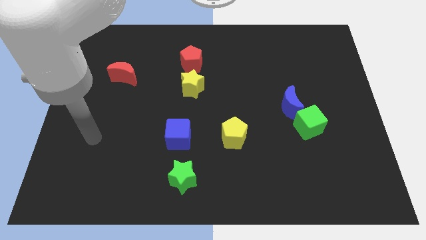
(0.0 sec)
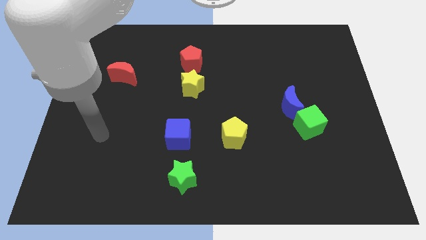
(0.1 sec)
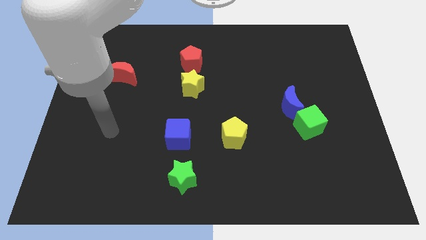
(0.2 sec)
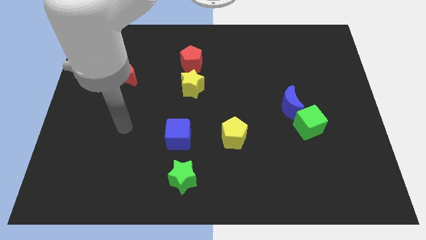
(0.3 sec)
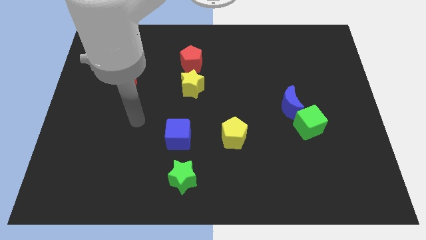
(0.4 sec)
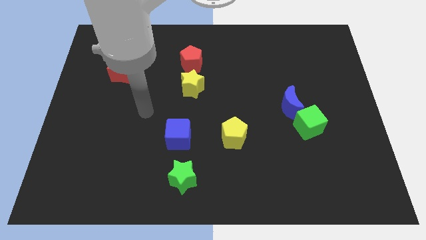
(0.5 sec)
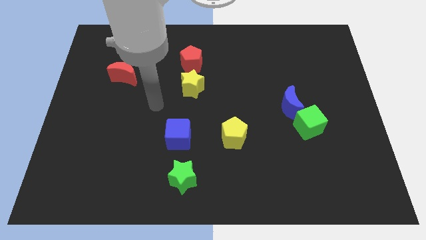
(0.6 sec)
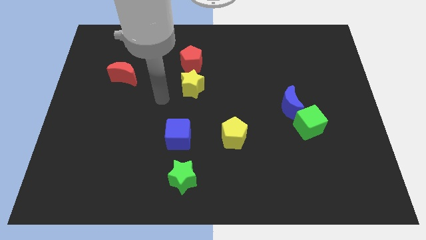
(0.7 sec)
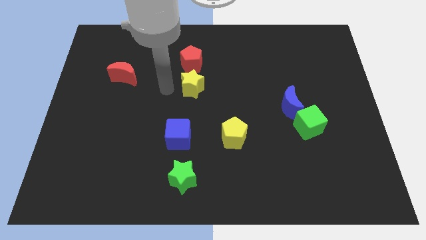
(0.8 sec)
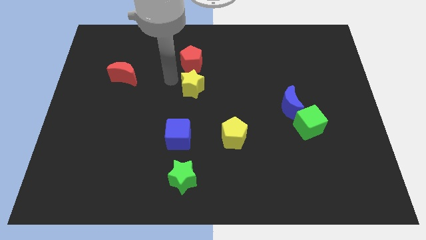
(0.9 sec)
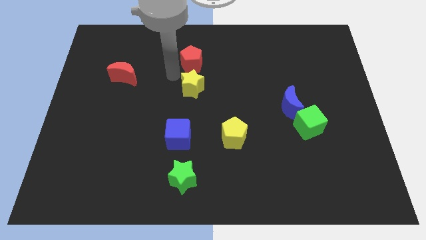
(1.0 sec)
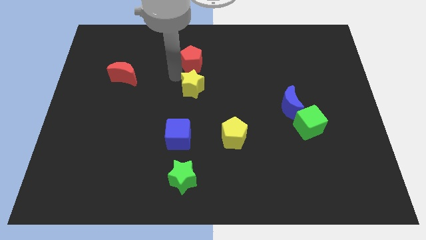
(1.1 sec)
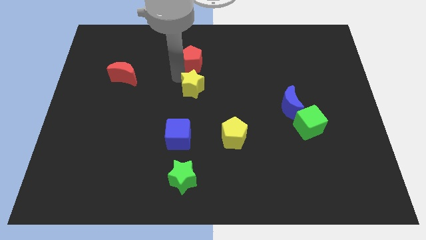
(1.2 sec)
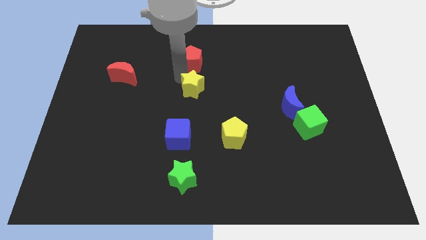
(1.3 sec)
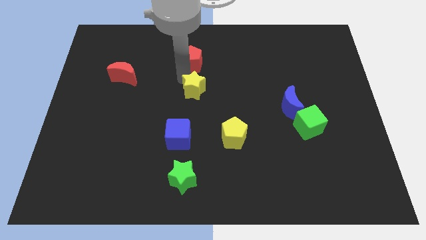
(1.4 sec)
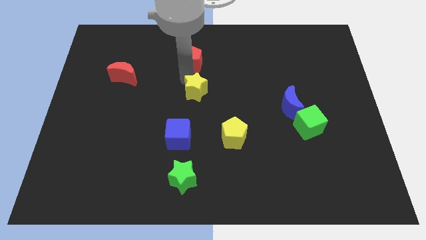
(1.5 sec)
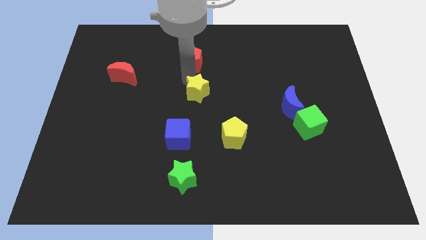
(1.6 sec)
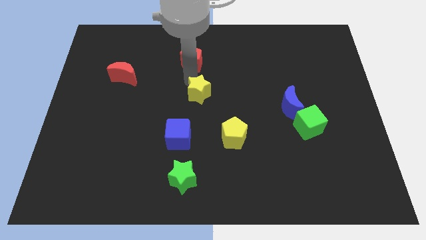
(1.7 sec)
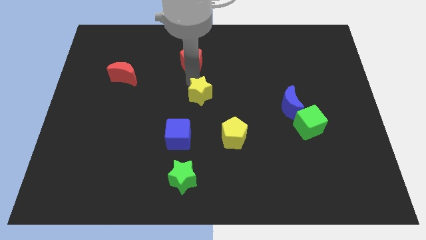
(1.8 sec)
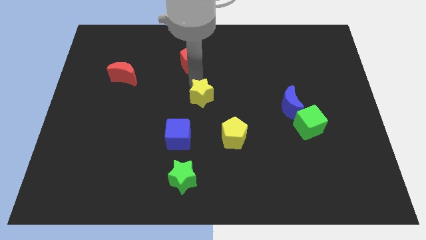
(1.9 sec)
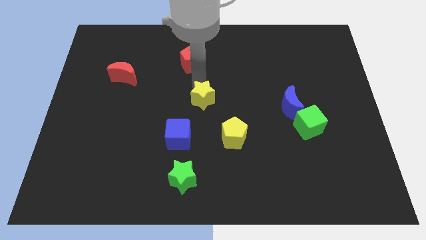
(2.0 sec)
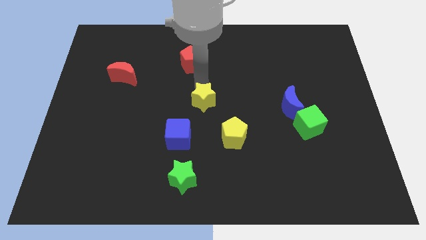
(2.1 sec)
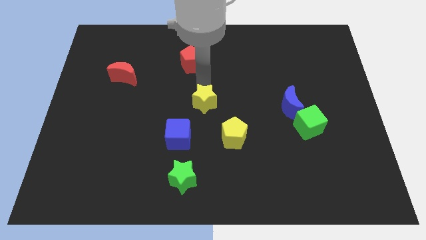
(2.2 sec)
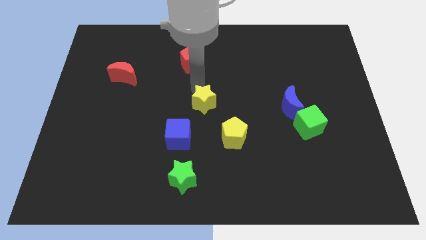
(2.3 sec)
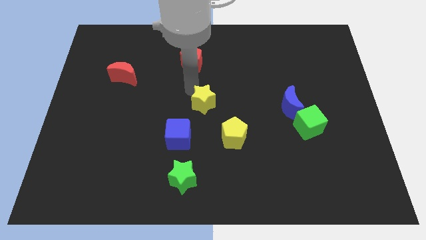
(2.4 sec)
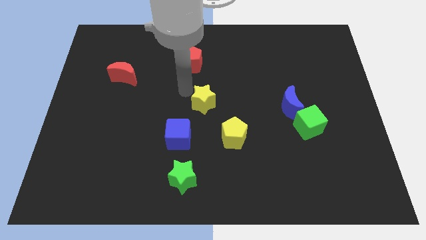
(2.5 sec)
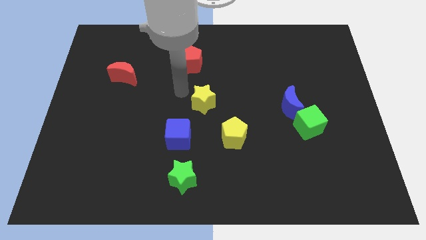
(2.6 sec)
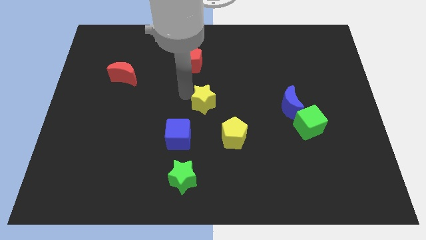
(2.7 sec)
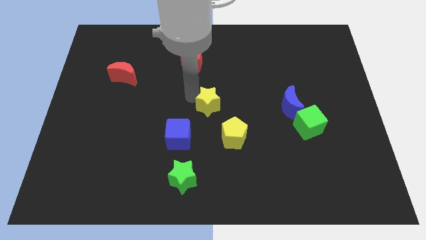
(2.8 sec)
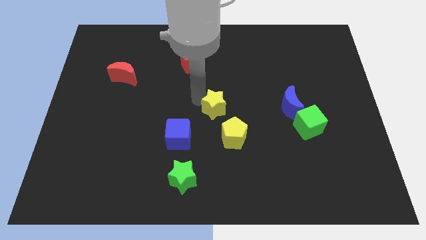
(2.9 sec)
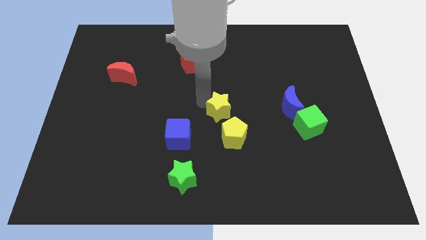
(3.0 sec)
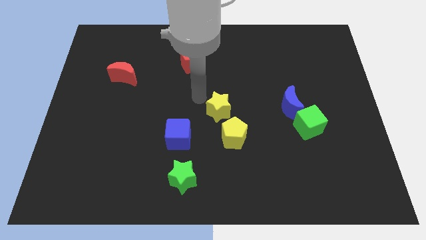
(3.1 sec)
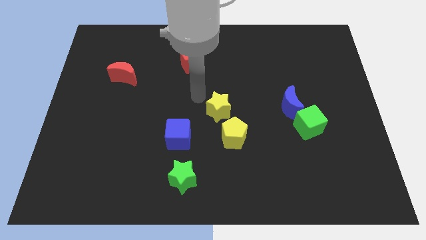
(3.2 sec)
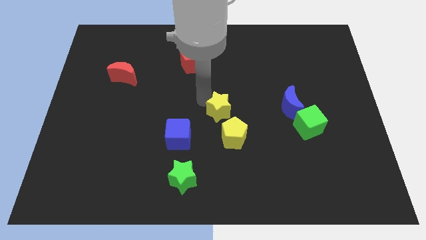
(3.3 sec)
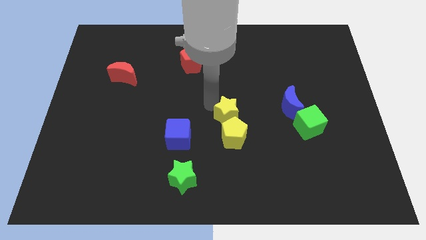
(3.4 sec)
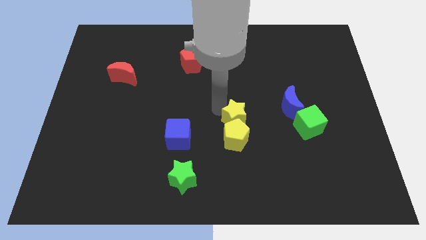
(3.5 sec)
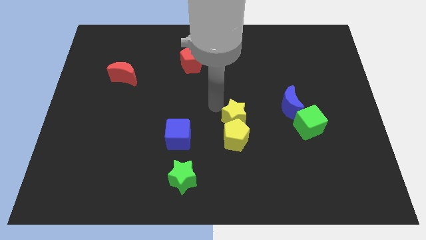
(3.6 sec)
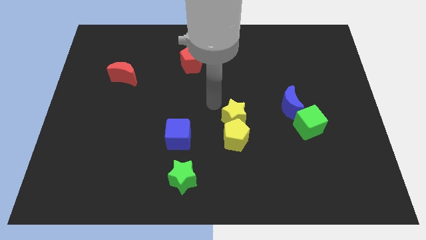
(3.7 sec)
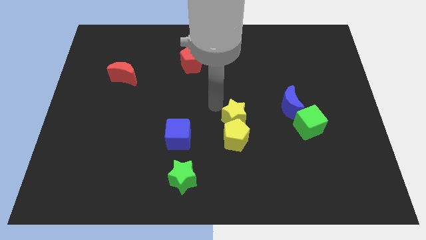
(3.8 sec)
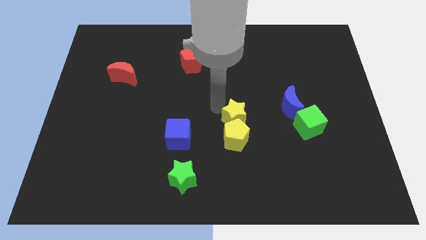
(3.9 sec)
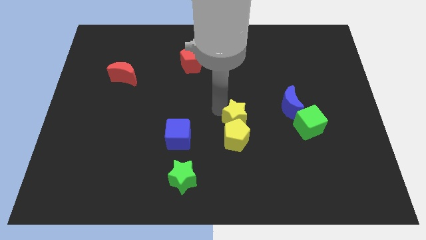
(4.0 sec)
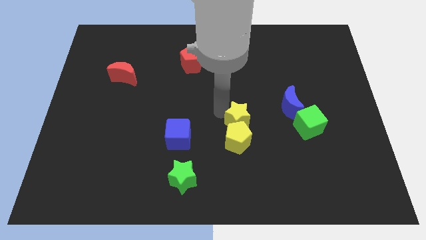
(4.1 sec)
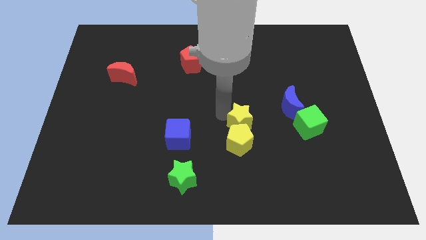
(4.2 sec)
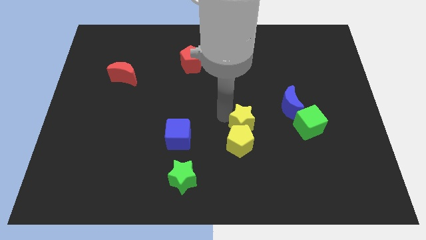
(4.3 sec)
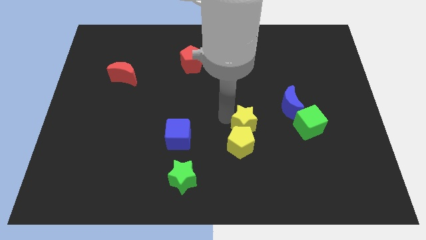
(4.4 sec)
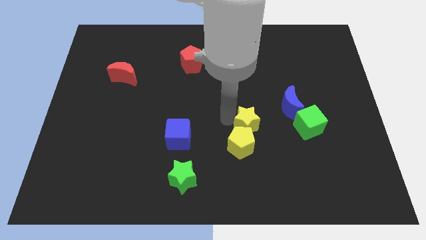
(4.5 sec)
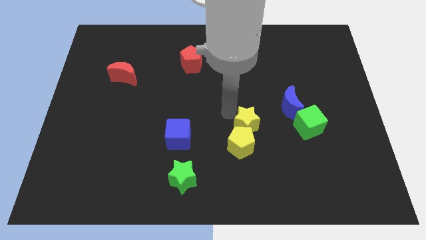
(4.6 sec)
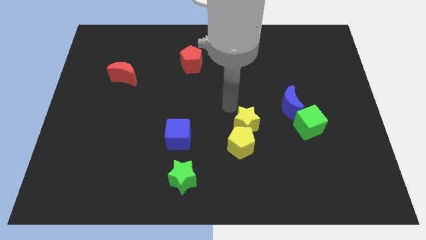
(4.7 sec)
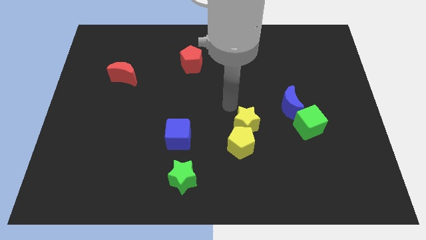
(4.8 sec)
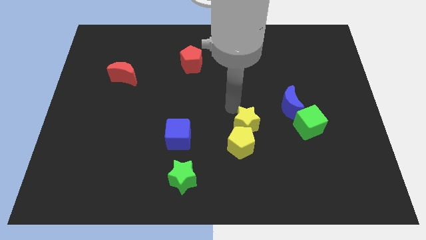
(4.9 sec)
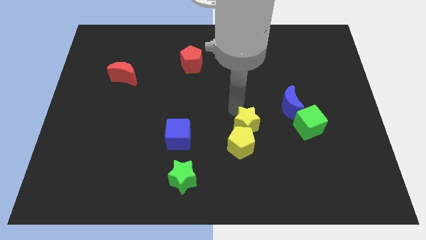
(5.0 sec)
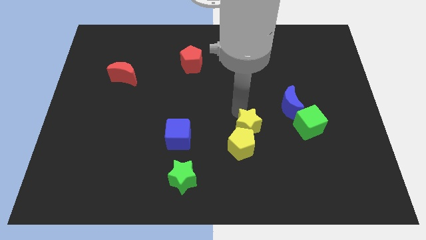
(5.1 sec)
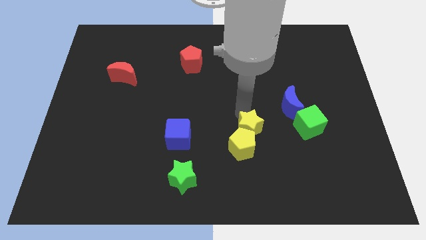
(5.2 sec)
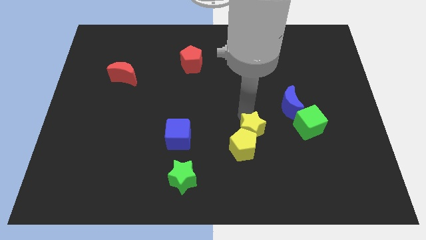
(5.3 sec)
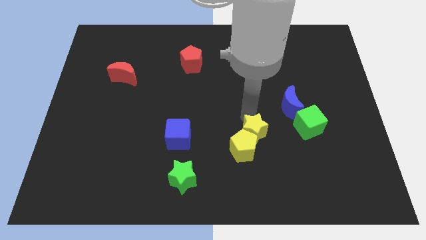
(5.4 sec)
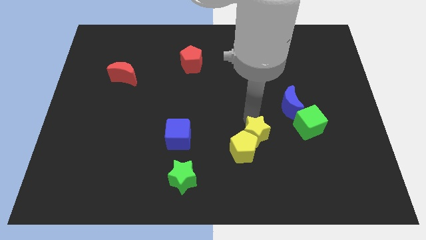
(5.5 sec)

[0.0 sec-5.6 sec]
push the yellow star downwards and then right

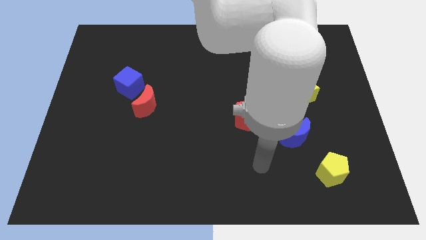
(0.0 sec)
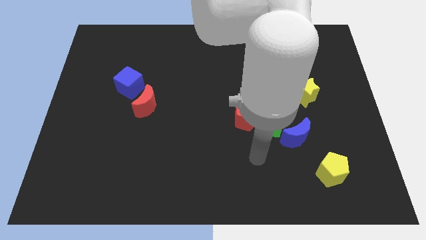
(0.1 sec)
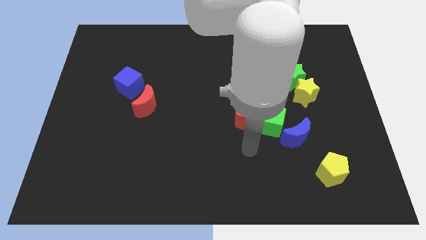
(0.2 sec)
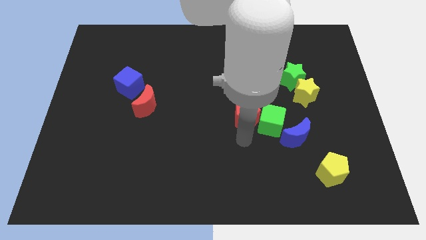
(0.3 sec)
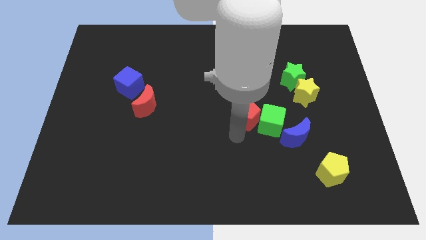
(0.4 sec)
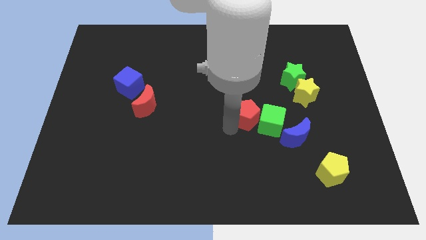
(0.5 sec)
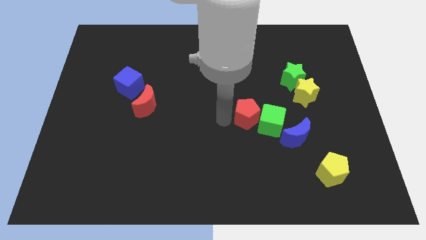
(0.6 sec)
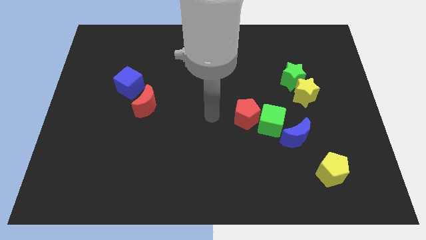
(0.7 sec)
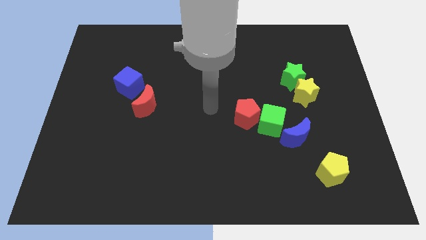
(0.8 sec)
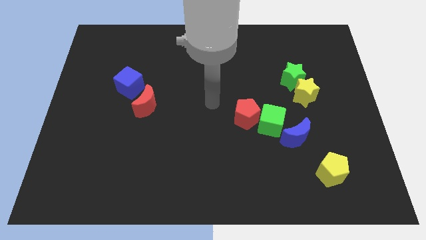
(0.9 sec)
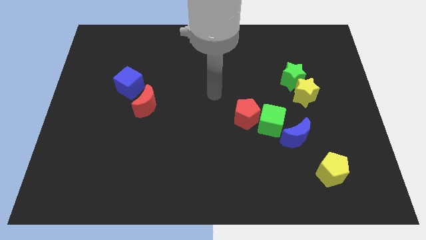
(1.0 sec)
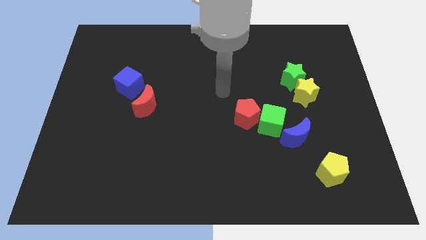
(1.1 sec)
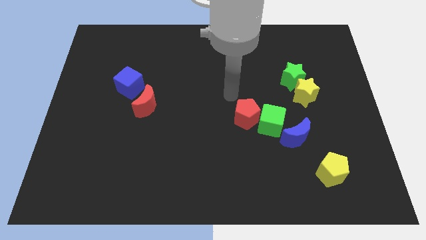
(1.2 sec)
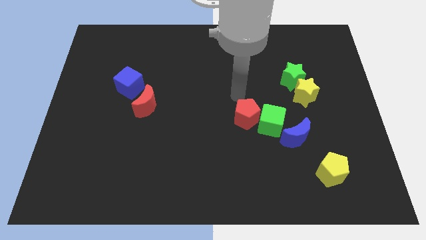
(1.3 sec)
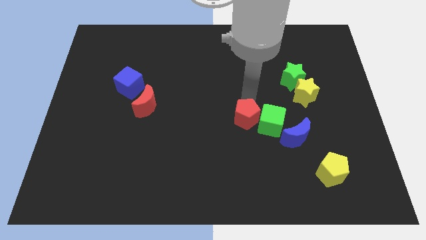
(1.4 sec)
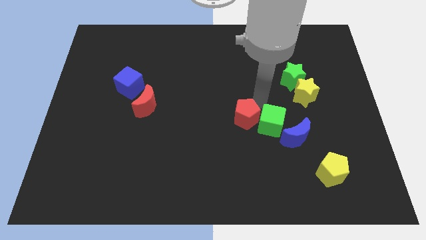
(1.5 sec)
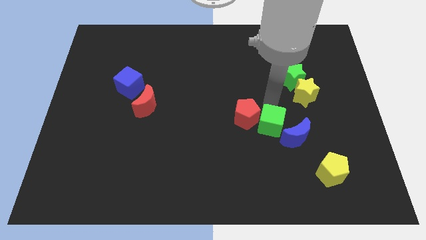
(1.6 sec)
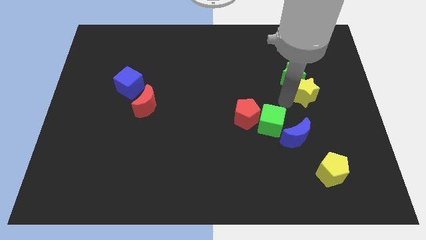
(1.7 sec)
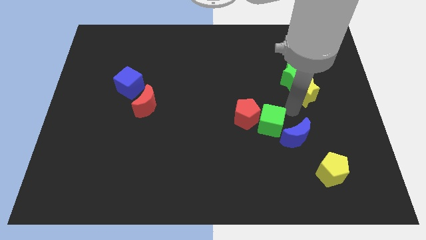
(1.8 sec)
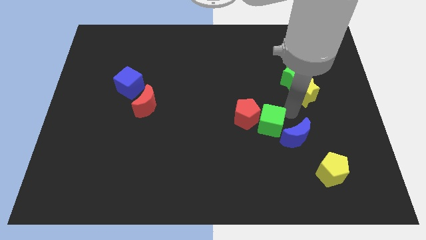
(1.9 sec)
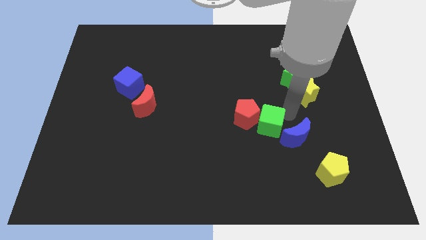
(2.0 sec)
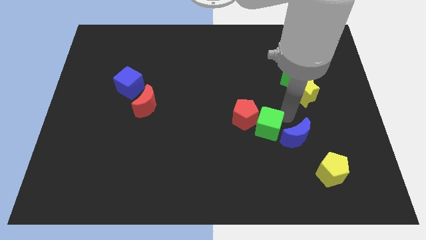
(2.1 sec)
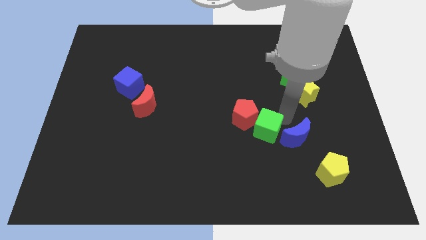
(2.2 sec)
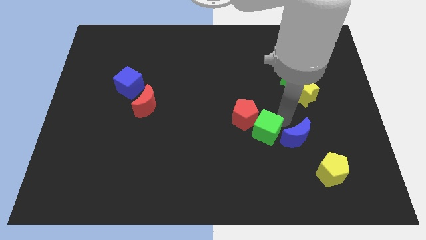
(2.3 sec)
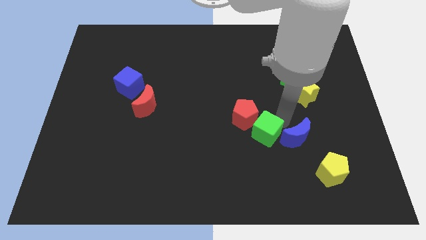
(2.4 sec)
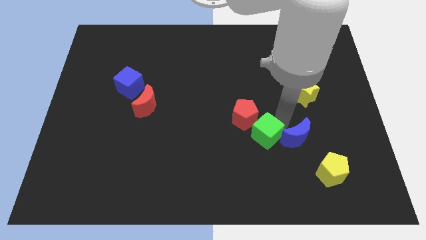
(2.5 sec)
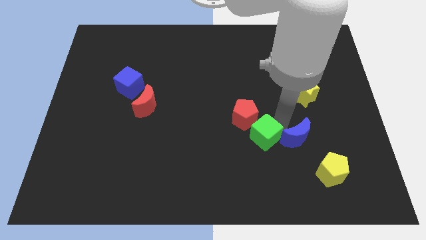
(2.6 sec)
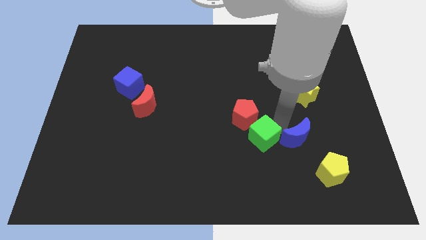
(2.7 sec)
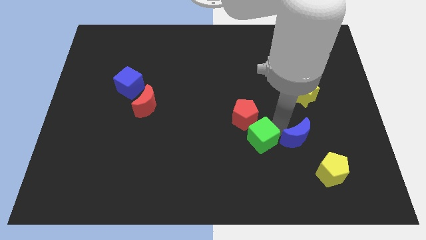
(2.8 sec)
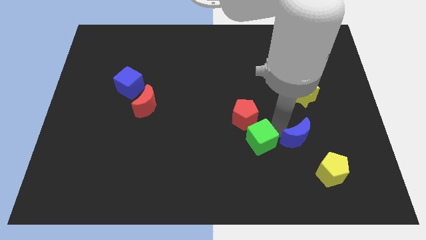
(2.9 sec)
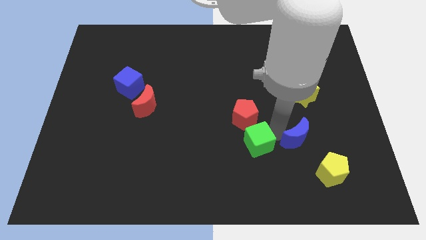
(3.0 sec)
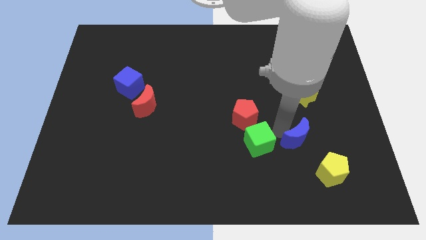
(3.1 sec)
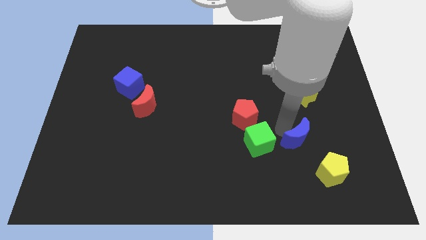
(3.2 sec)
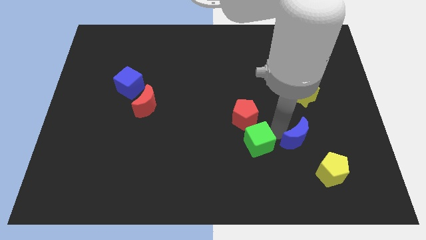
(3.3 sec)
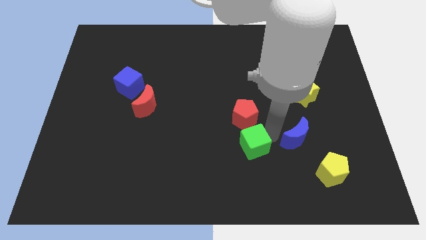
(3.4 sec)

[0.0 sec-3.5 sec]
slightly push the green cube diagonally downwards and to the left
